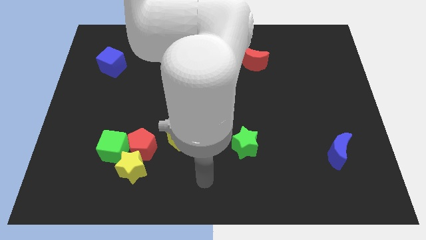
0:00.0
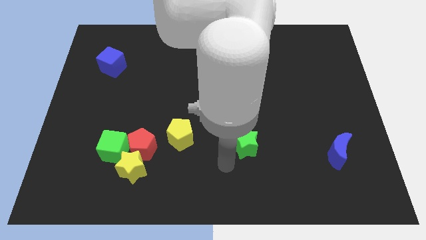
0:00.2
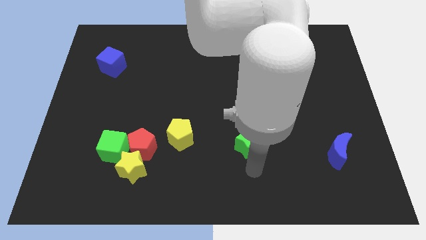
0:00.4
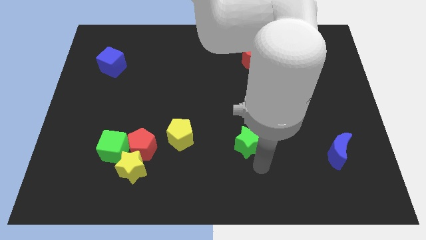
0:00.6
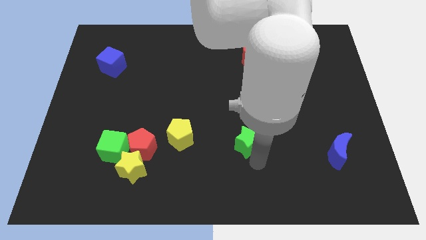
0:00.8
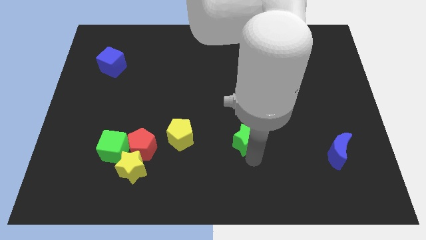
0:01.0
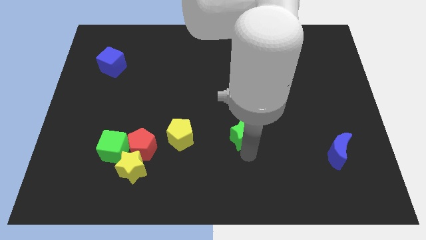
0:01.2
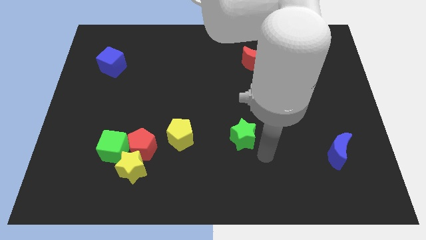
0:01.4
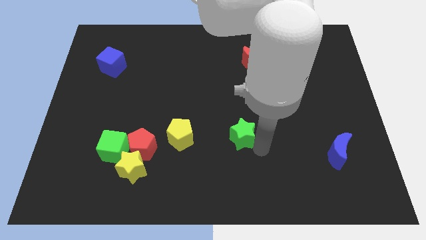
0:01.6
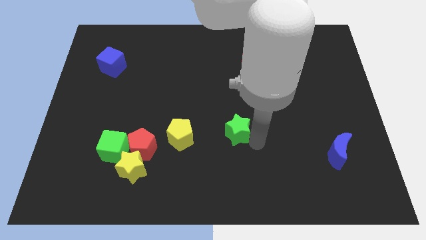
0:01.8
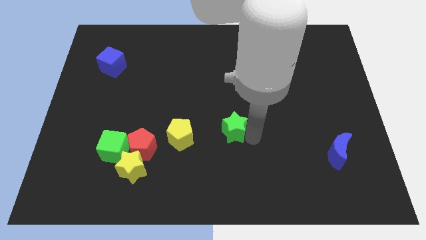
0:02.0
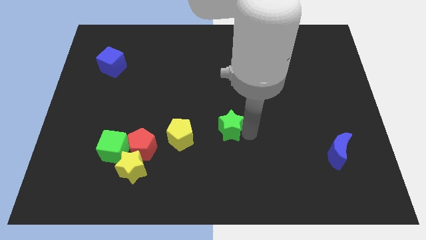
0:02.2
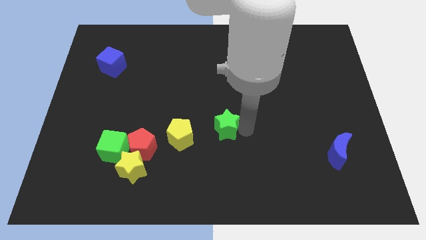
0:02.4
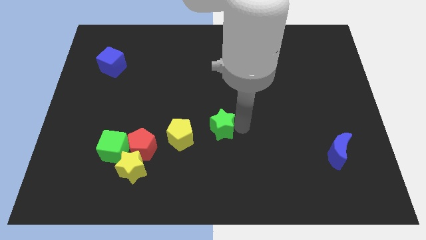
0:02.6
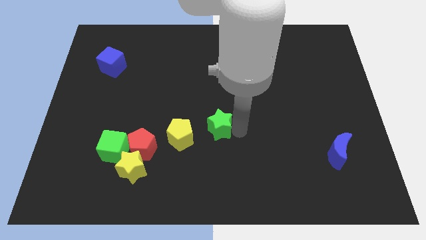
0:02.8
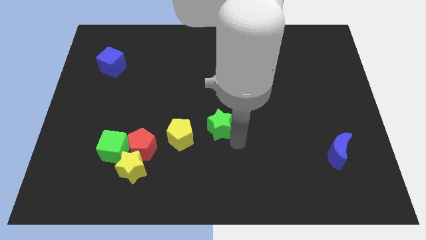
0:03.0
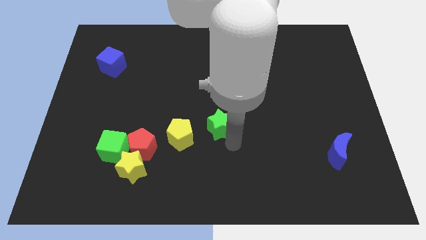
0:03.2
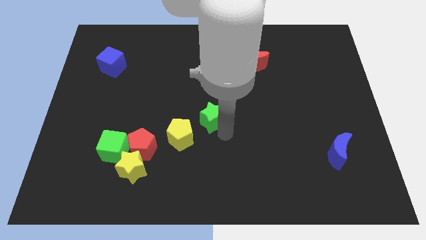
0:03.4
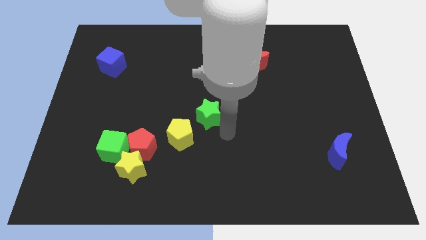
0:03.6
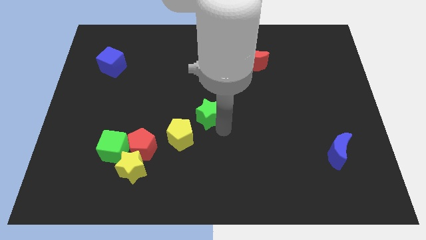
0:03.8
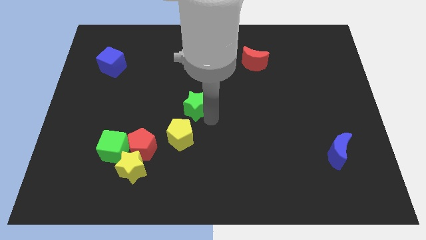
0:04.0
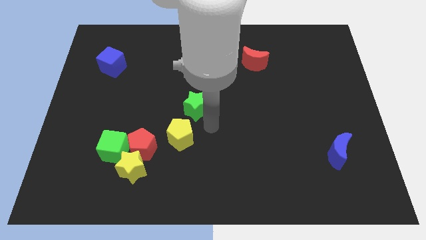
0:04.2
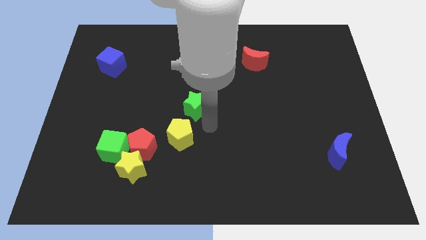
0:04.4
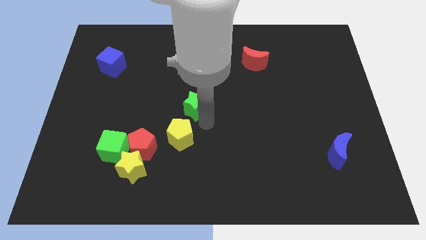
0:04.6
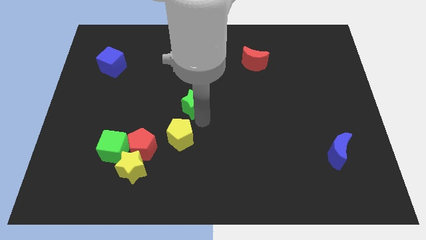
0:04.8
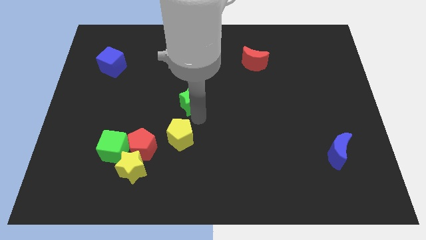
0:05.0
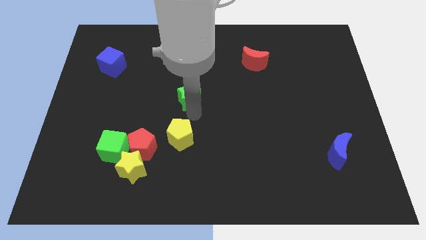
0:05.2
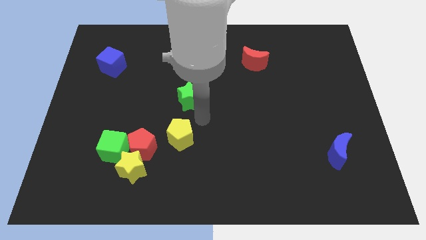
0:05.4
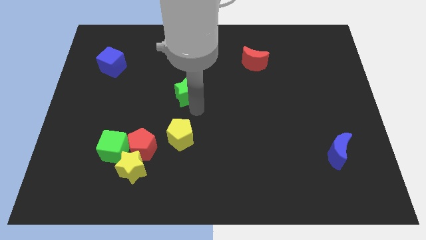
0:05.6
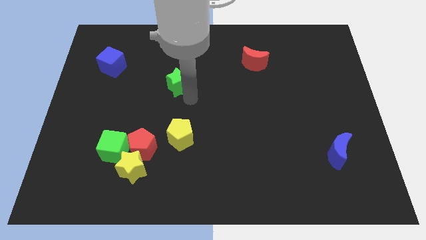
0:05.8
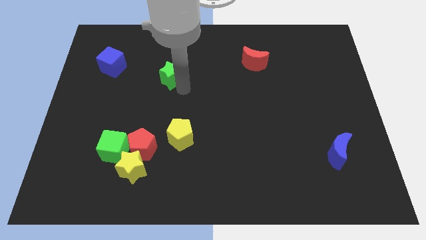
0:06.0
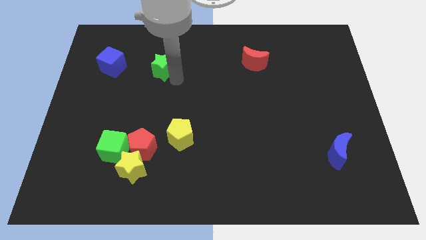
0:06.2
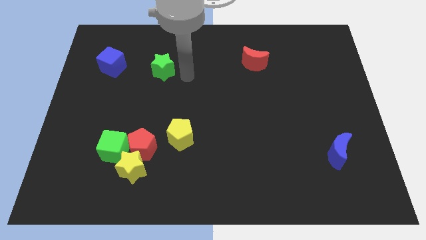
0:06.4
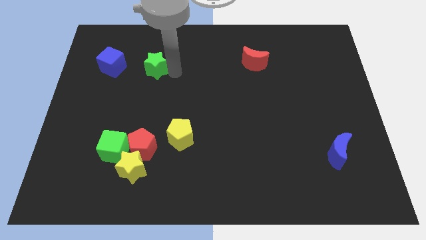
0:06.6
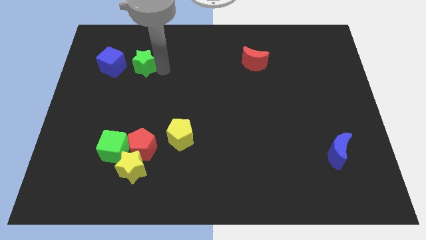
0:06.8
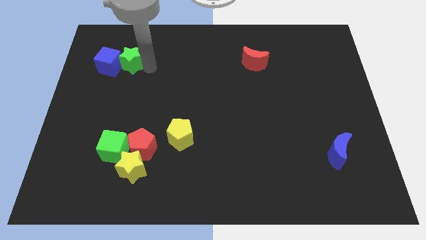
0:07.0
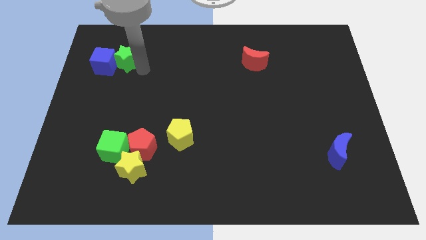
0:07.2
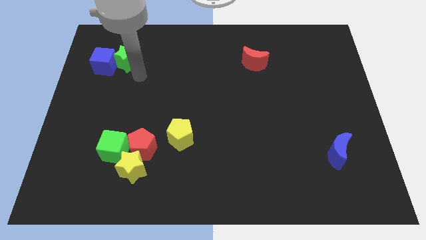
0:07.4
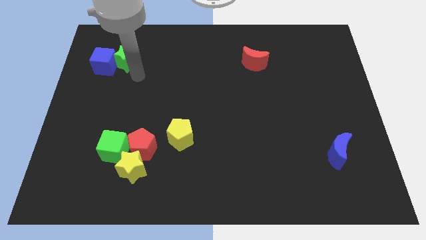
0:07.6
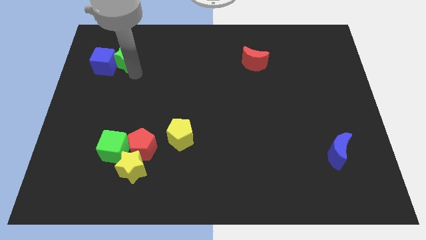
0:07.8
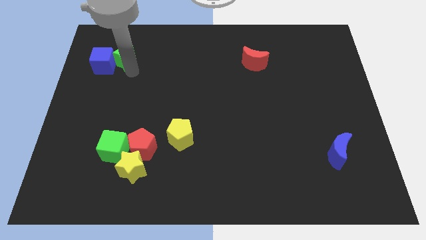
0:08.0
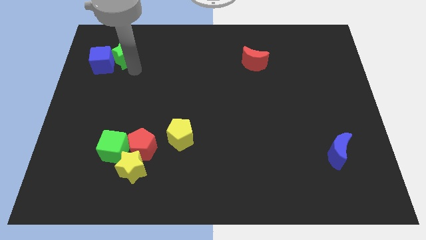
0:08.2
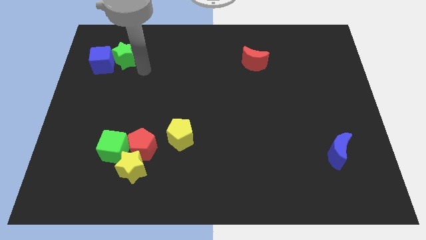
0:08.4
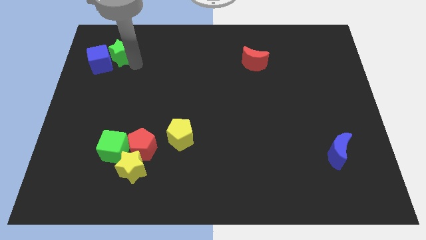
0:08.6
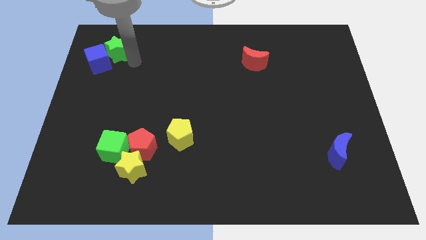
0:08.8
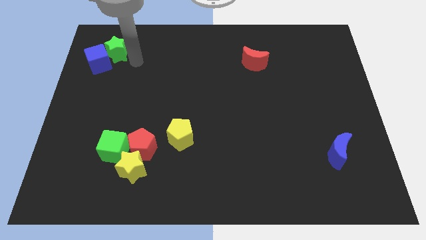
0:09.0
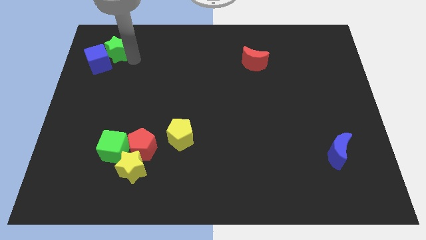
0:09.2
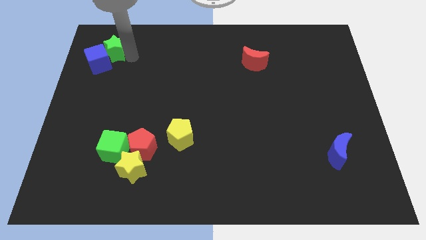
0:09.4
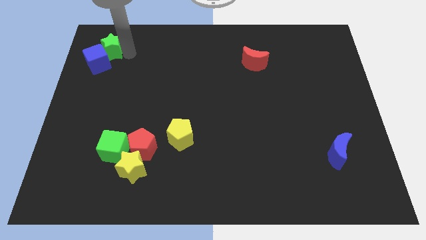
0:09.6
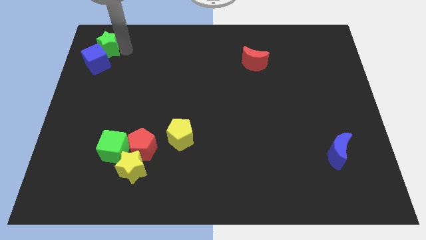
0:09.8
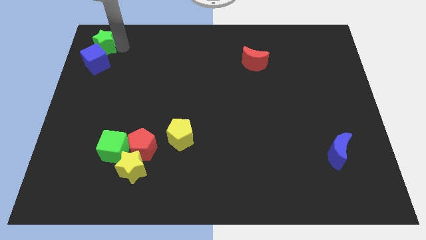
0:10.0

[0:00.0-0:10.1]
push the green star to the top left corner

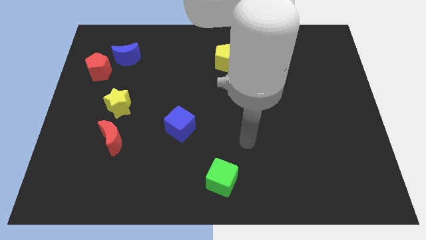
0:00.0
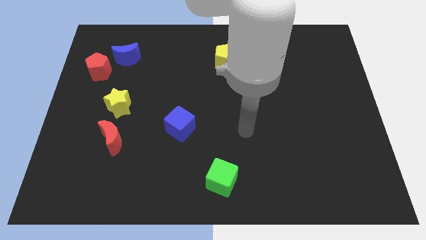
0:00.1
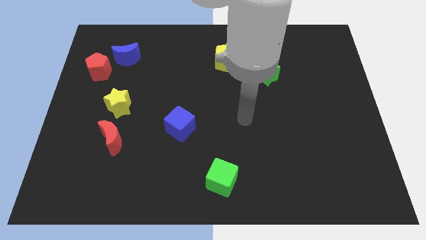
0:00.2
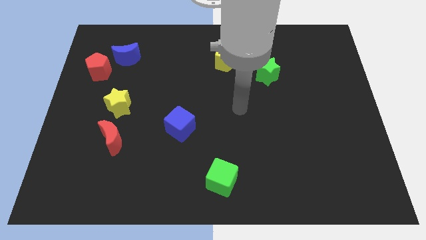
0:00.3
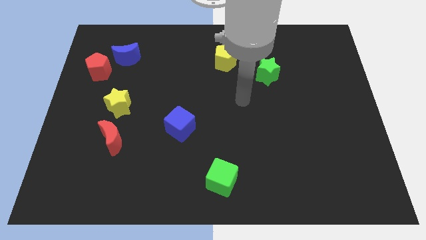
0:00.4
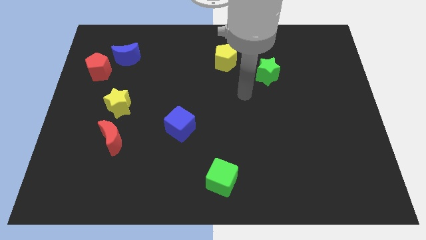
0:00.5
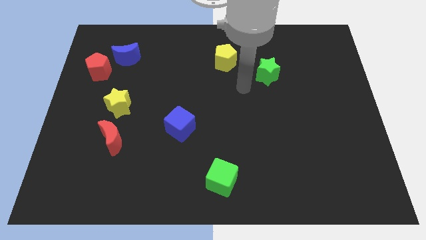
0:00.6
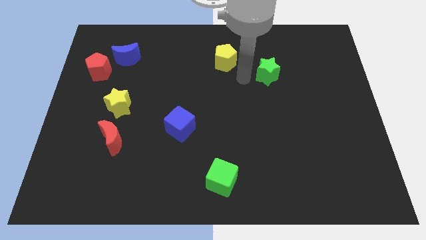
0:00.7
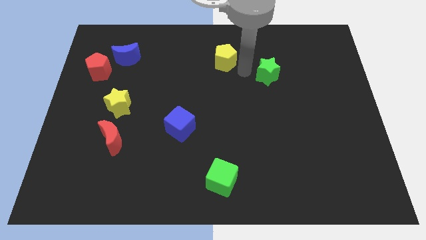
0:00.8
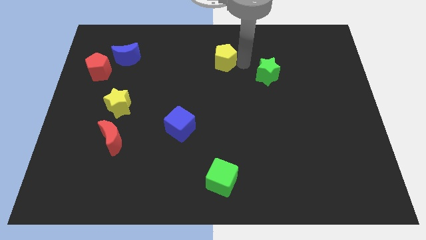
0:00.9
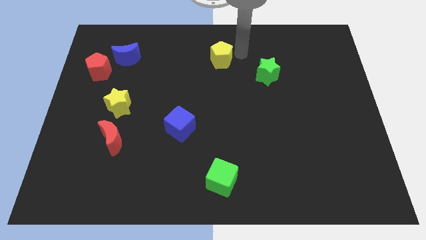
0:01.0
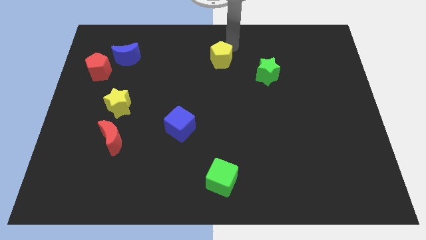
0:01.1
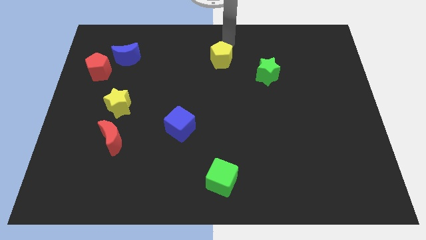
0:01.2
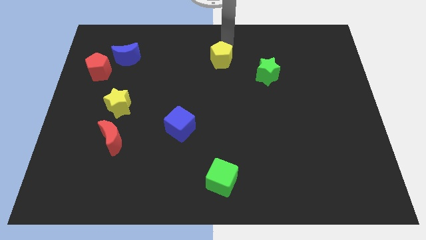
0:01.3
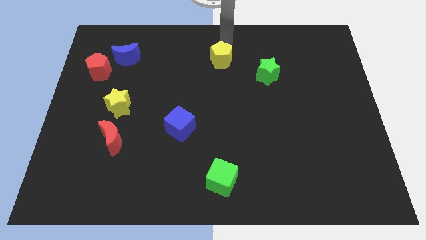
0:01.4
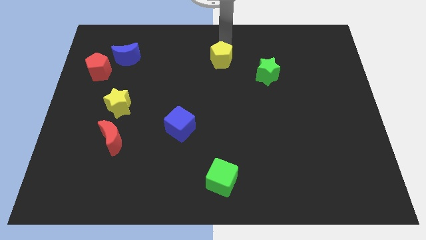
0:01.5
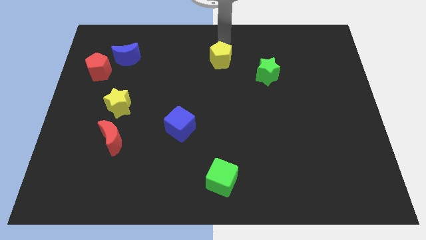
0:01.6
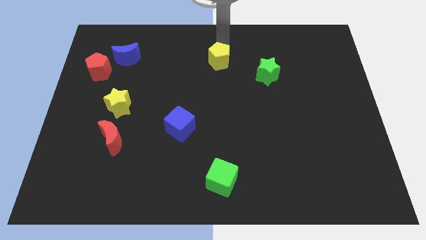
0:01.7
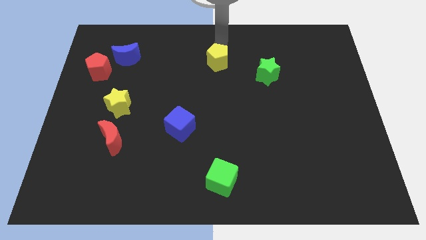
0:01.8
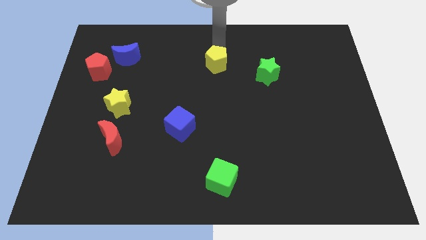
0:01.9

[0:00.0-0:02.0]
move the yellow pentagon to the middle of the board
